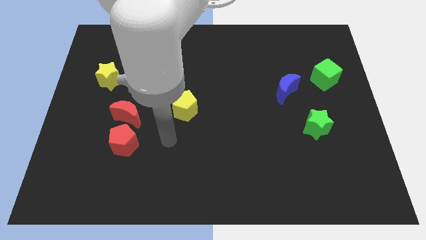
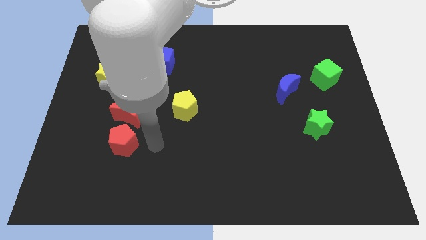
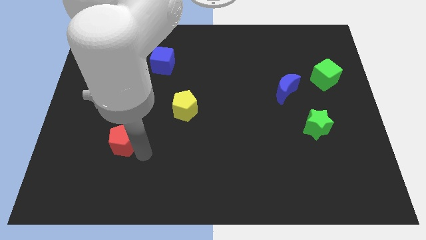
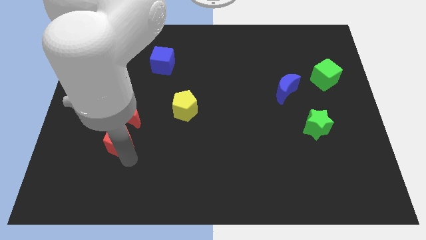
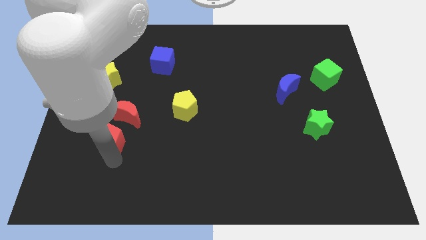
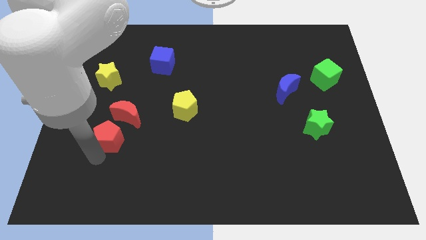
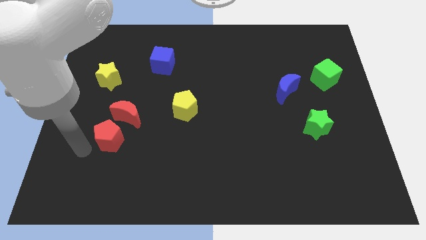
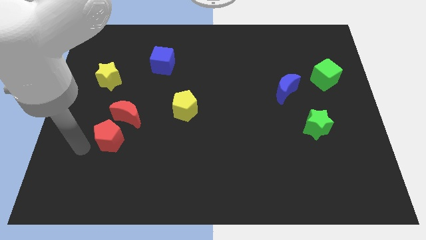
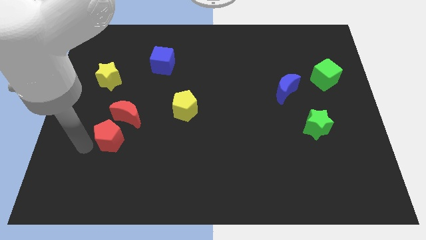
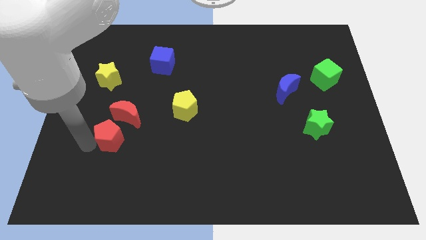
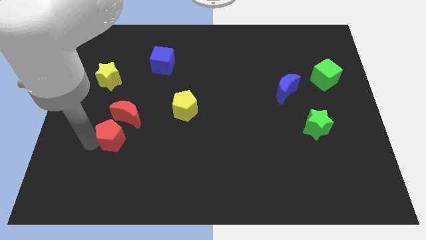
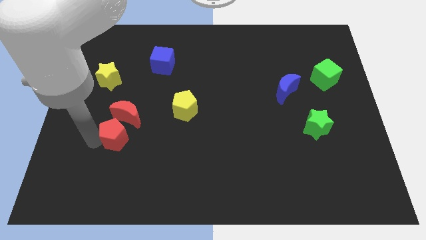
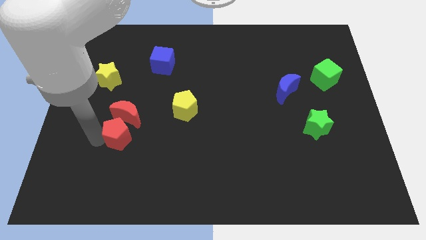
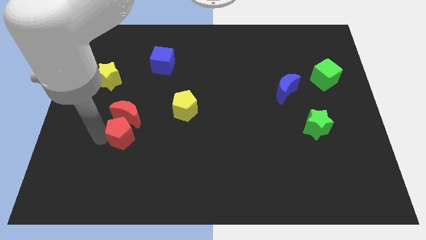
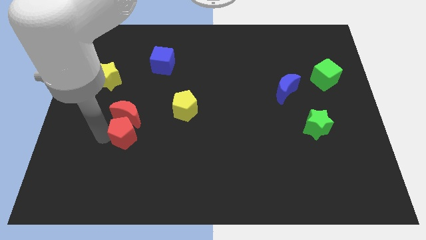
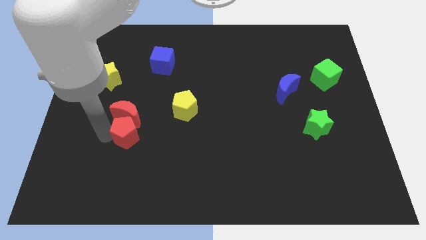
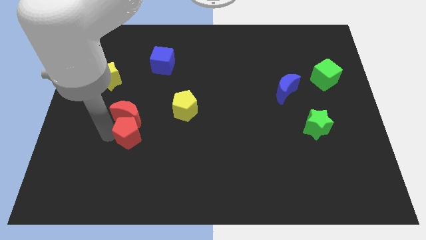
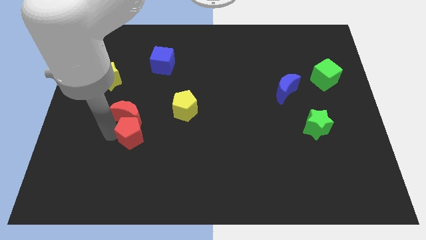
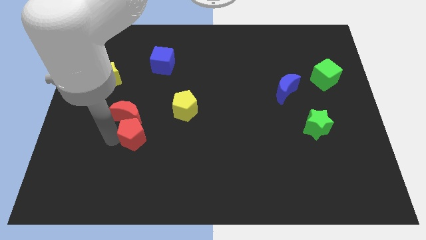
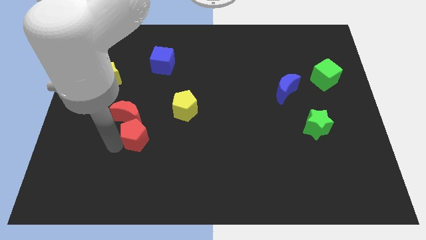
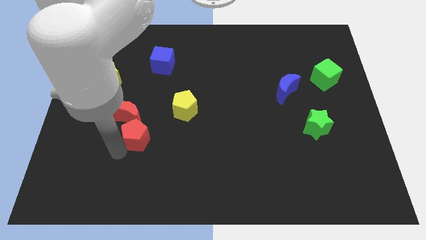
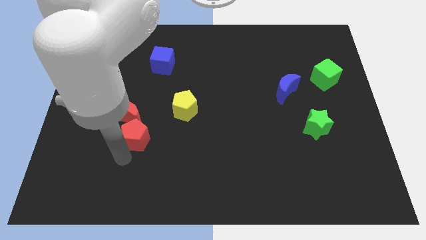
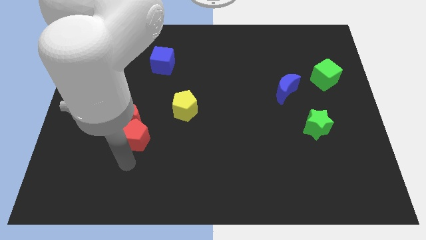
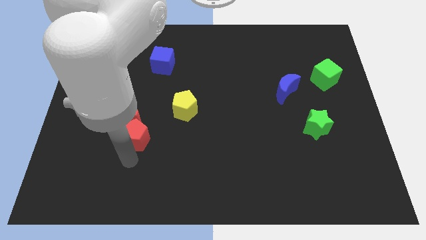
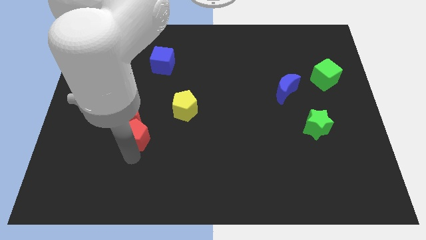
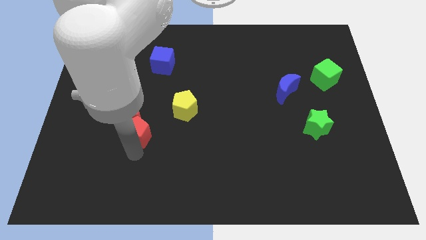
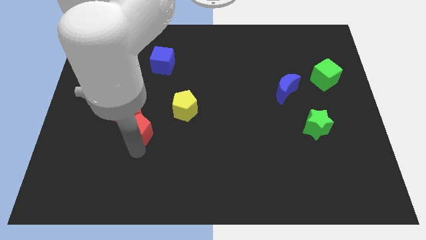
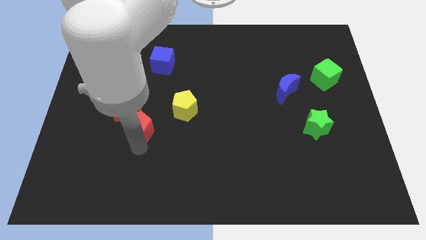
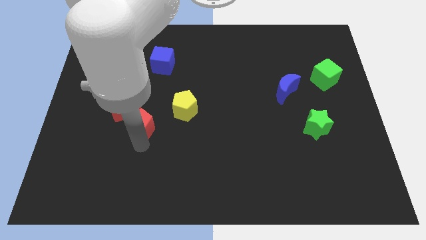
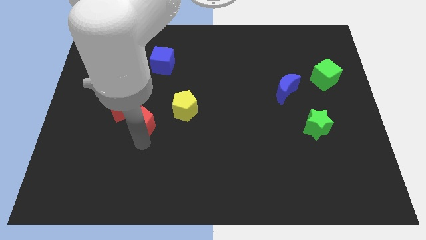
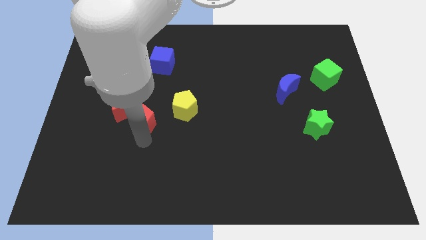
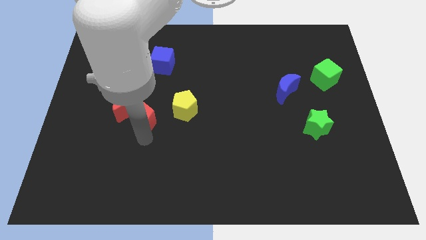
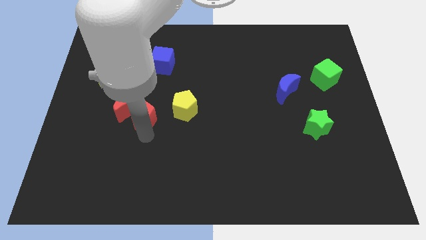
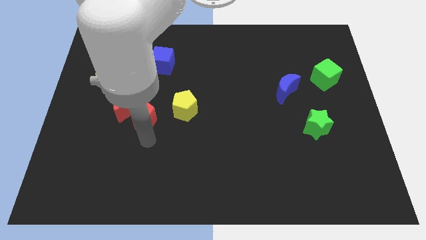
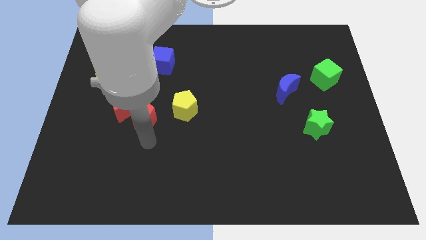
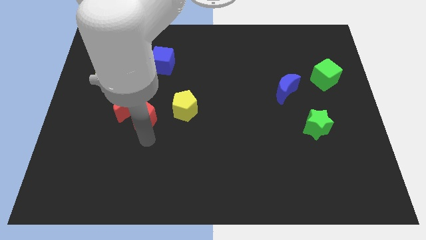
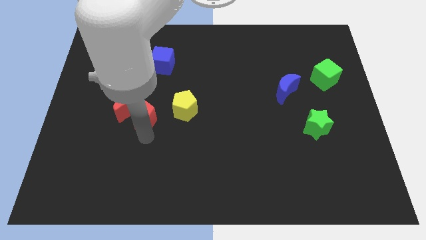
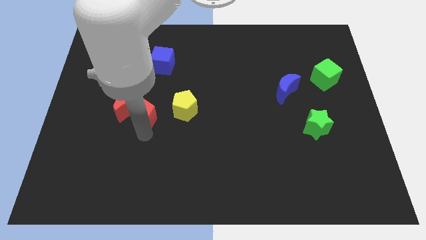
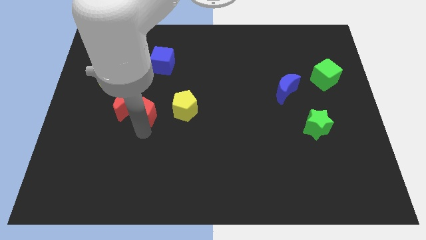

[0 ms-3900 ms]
slide the red pentagon up a bit

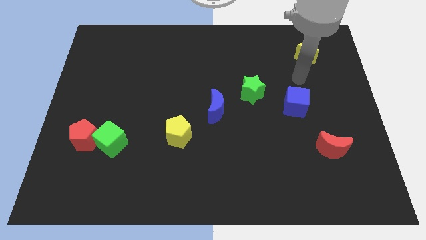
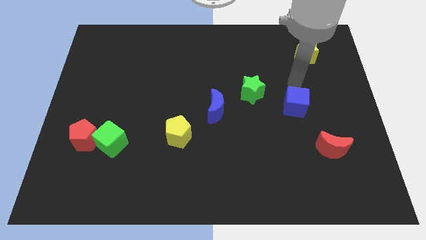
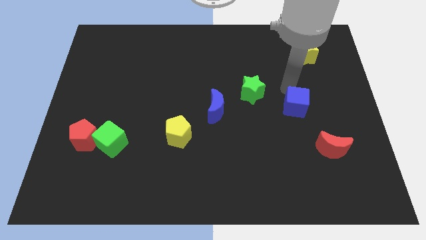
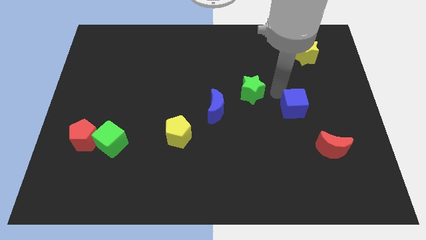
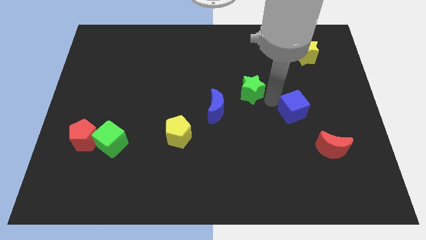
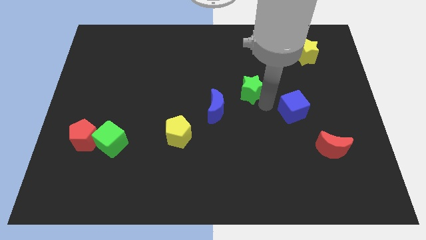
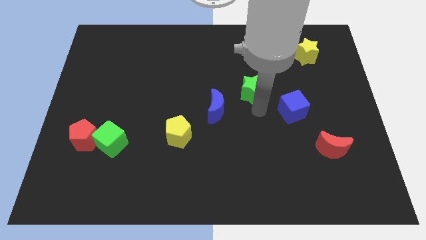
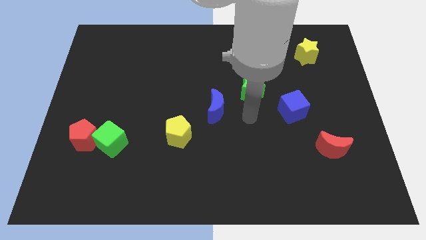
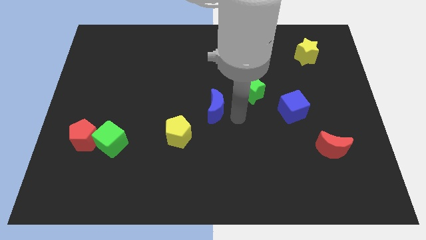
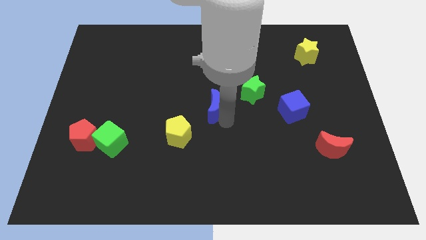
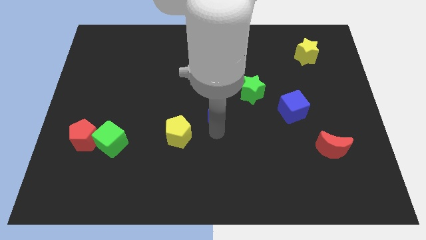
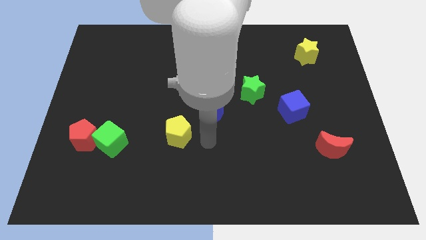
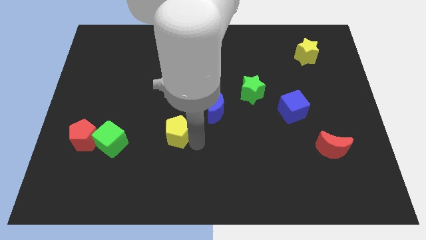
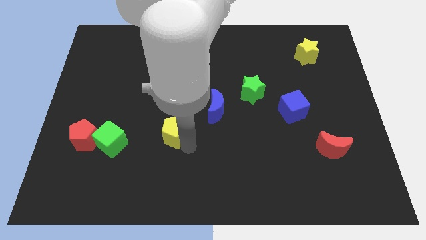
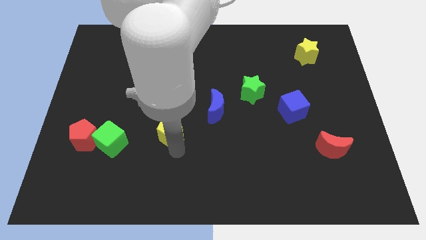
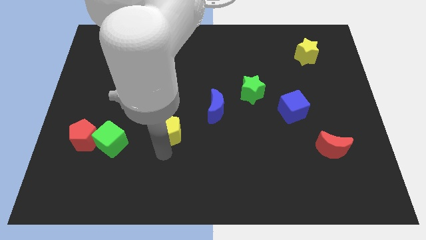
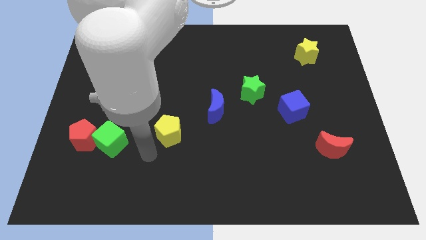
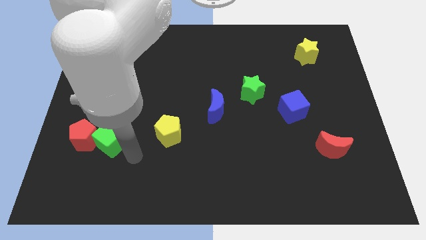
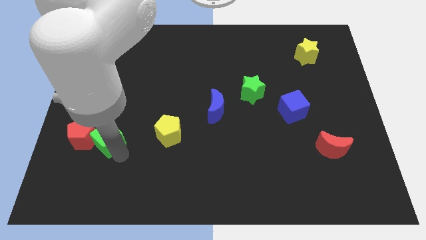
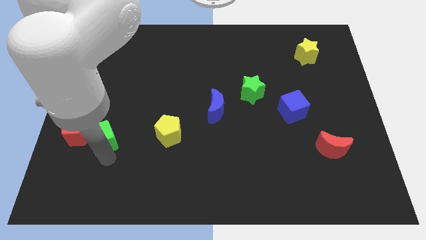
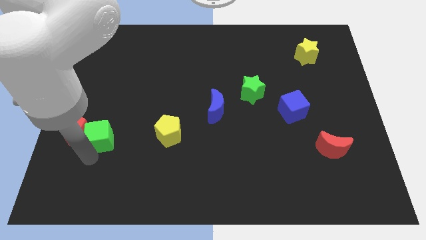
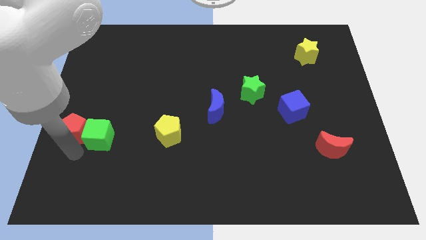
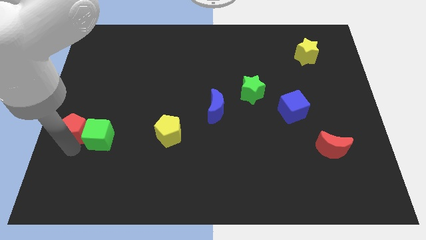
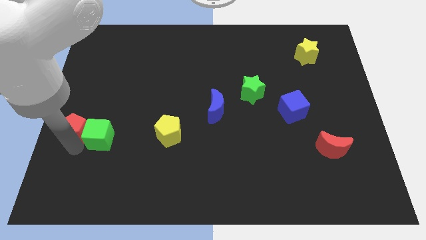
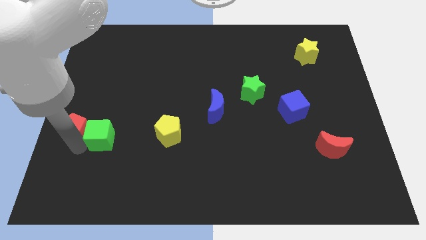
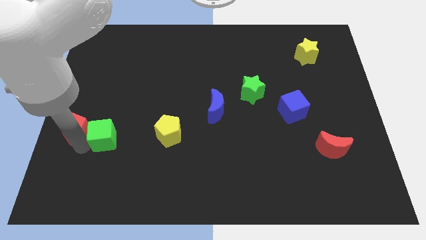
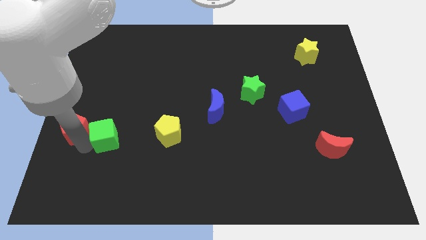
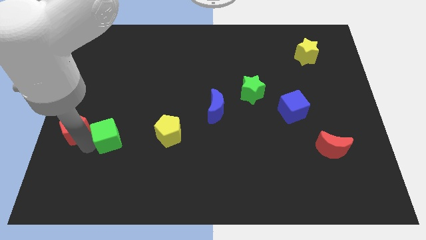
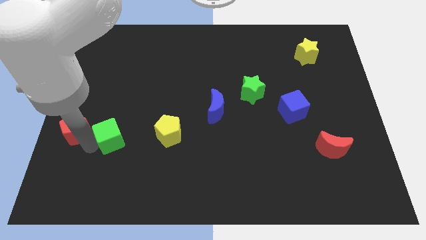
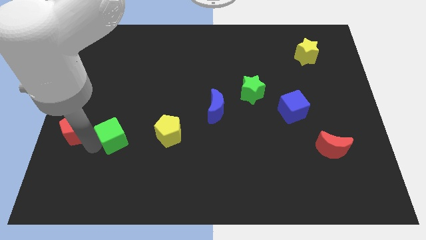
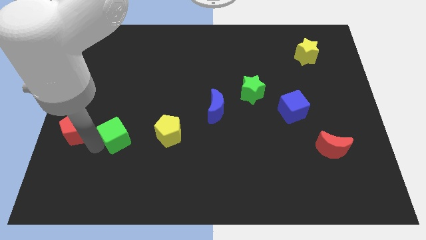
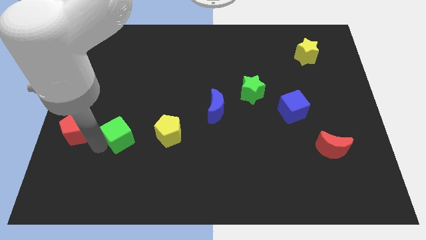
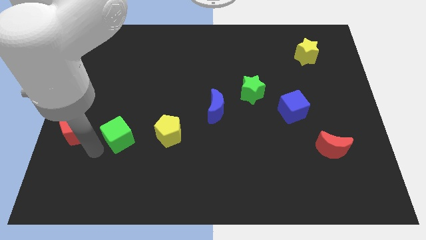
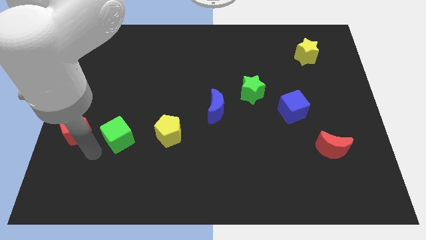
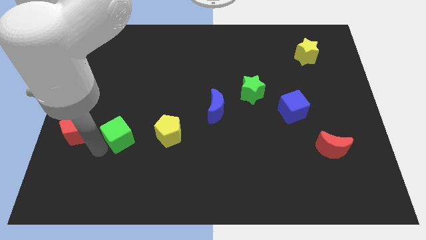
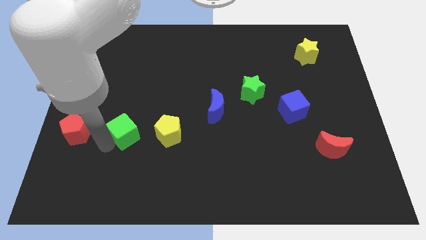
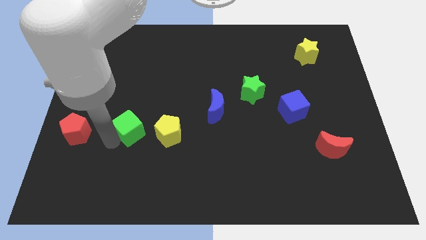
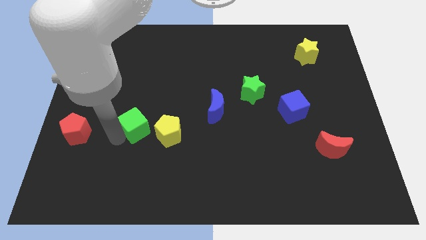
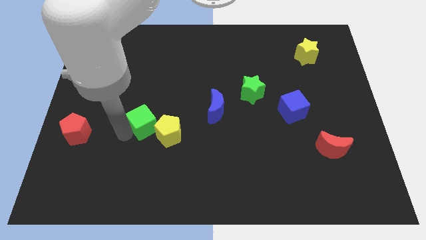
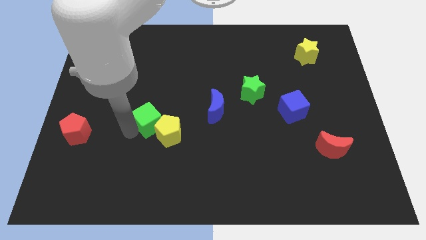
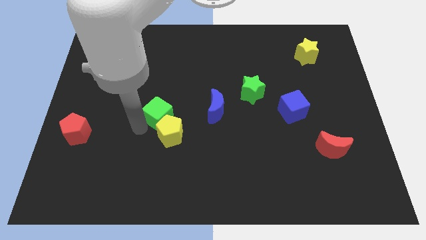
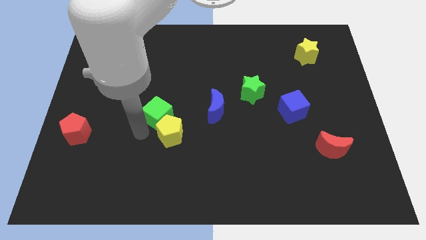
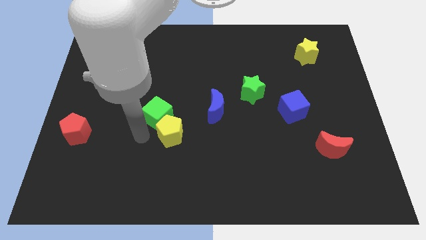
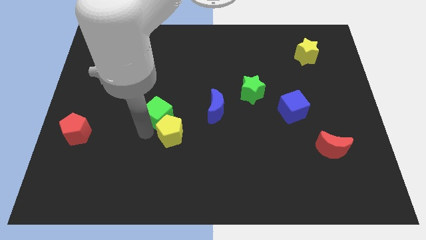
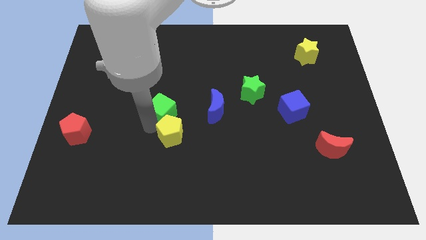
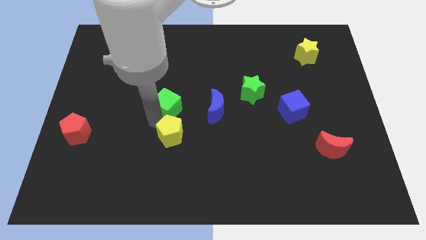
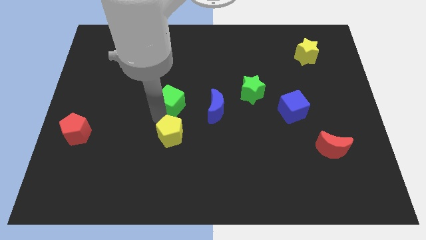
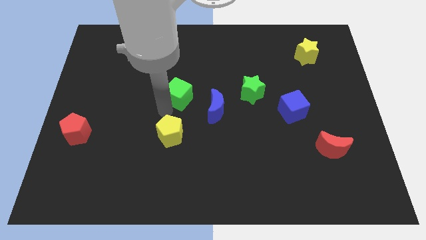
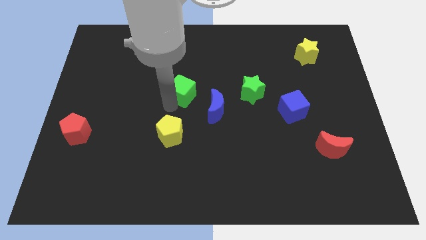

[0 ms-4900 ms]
push the green cube upwards and to the right
